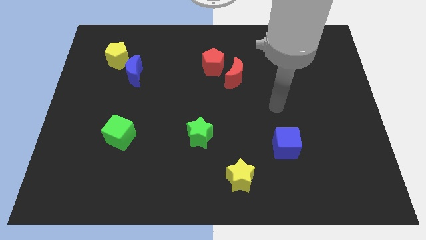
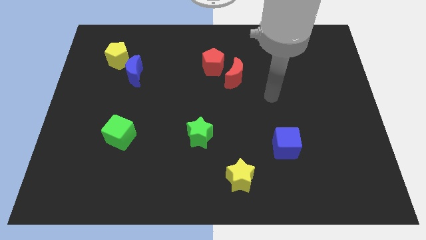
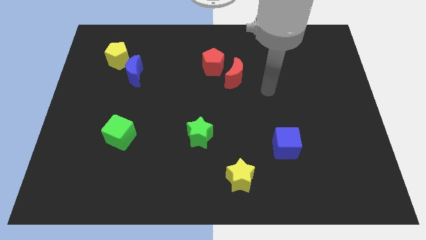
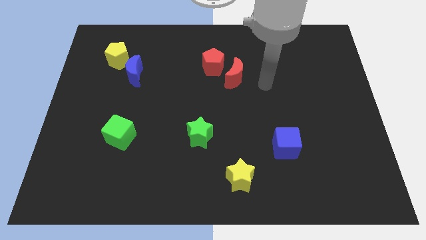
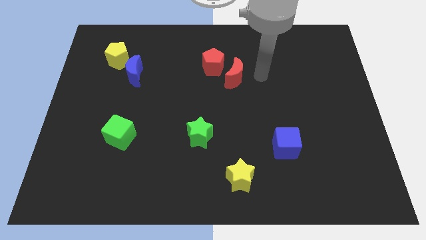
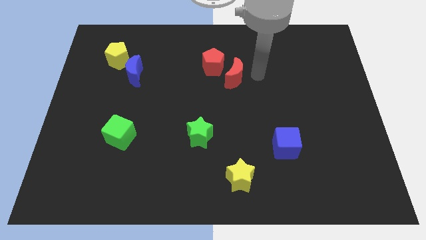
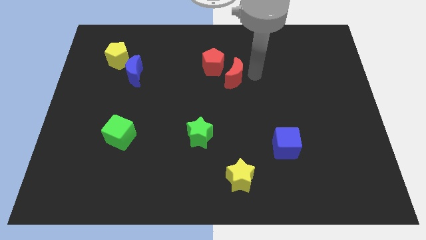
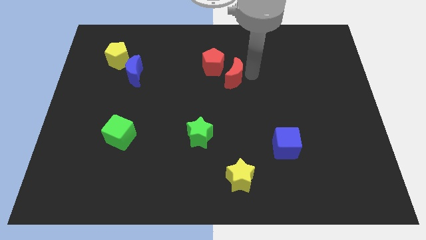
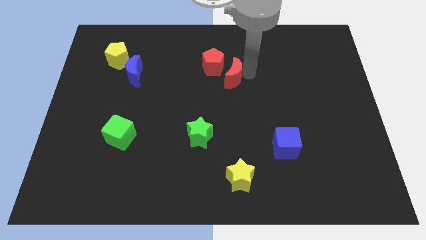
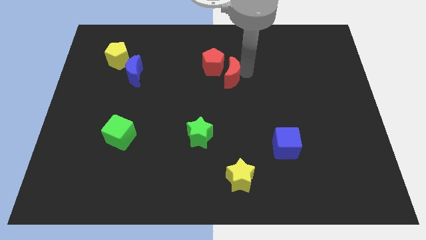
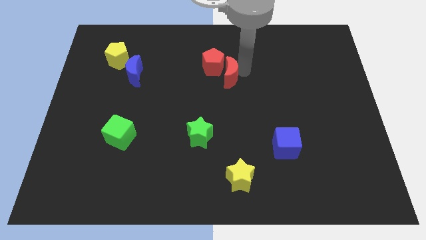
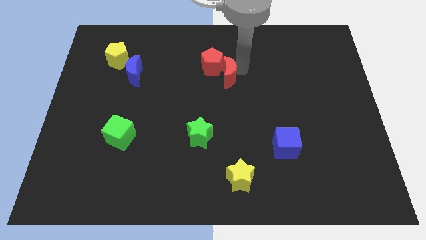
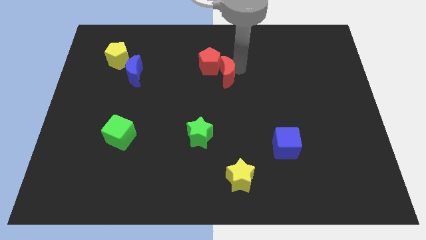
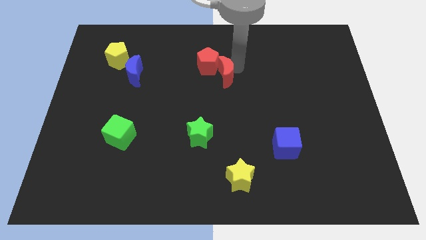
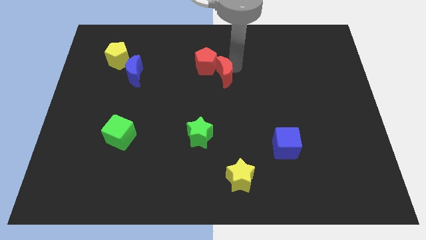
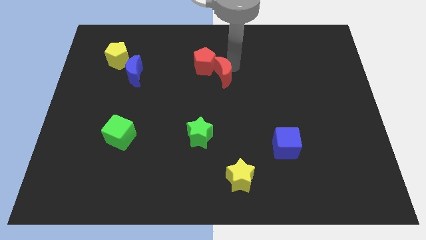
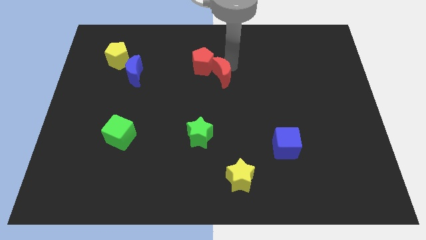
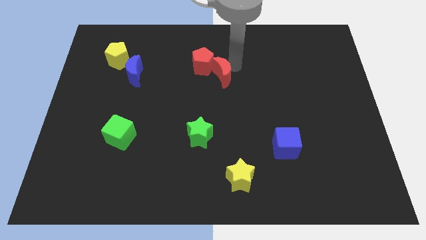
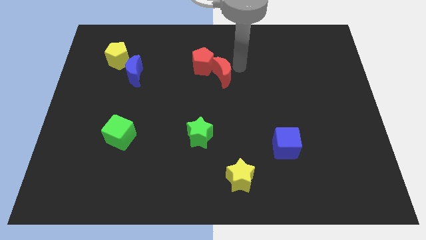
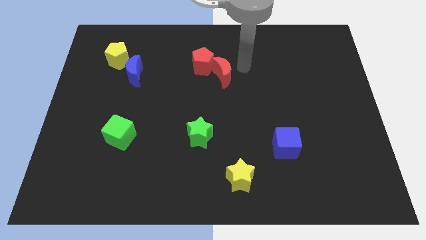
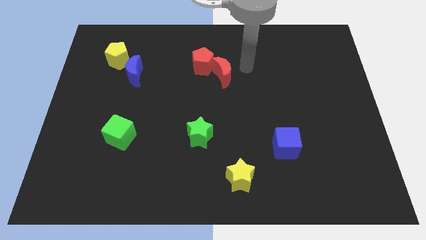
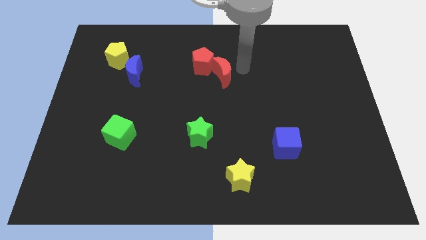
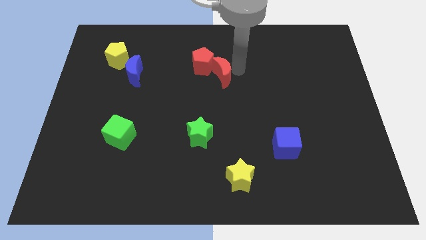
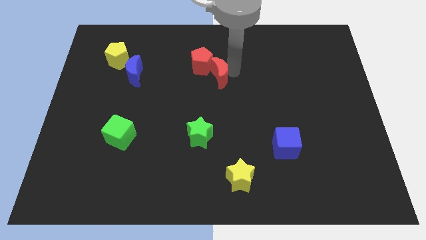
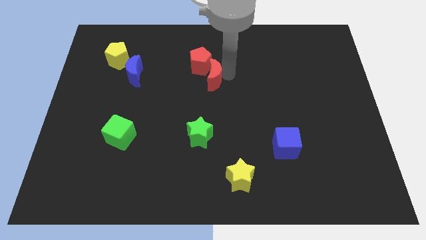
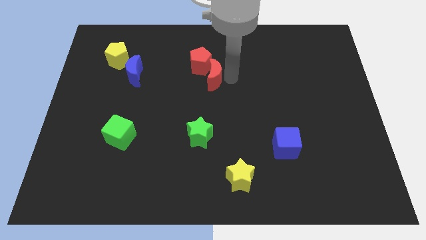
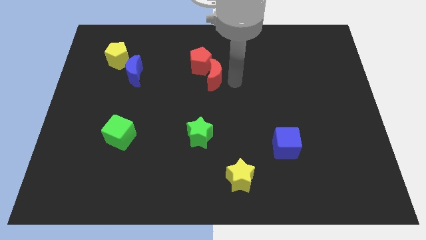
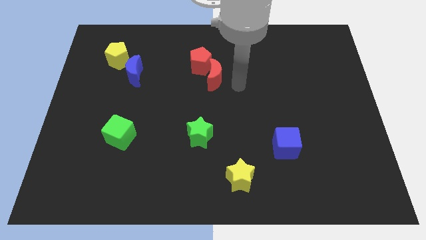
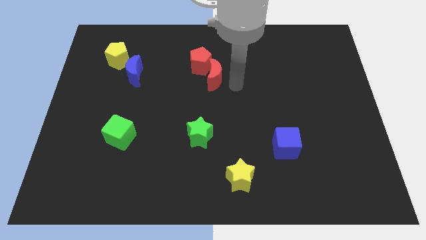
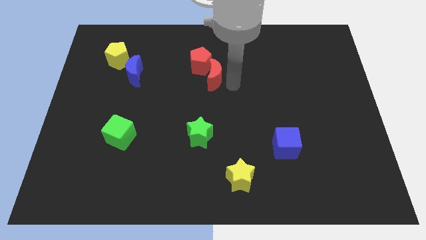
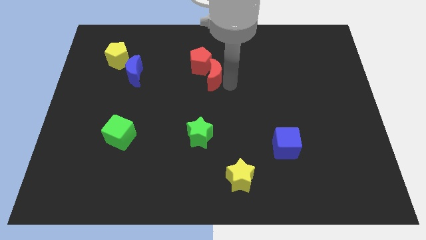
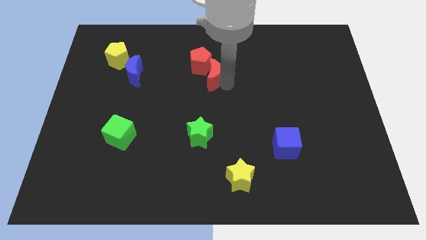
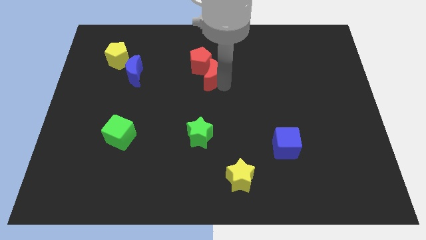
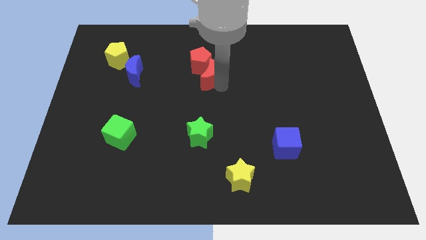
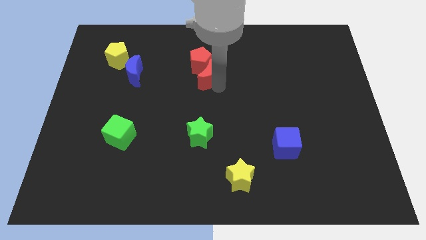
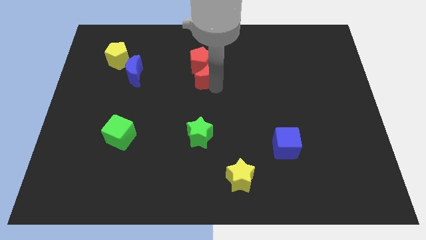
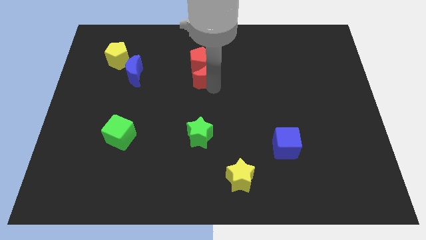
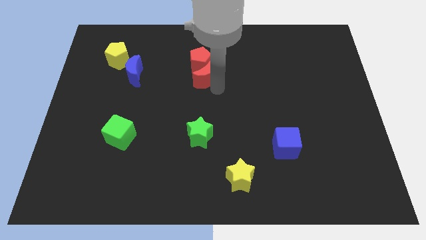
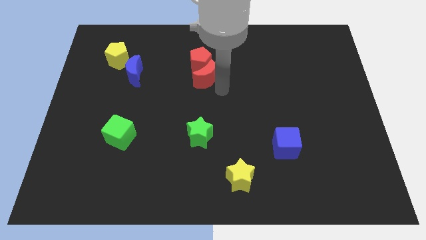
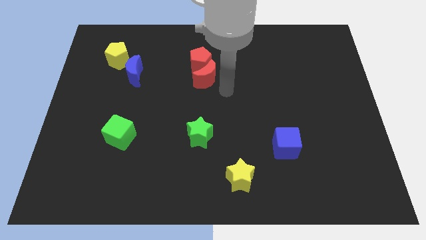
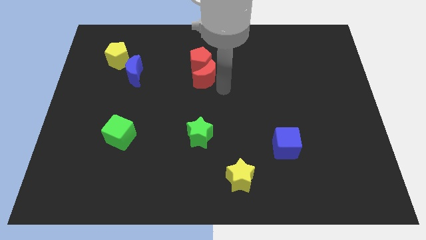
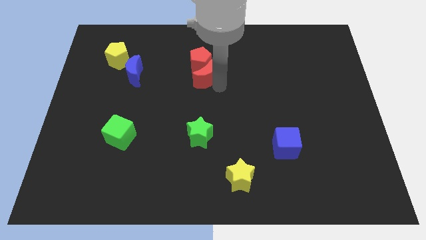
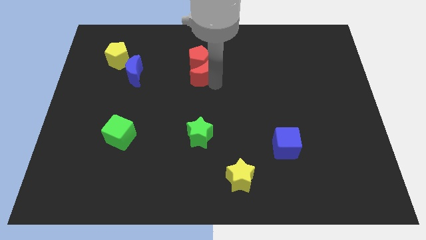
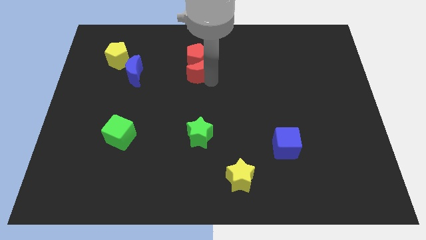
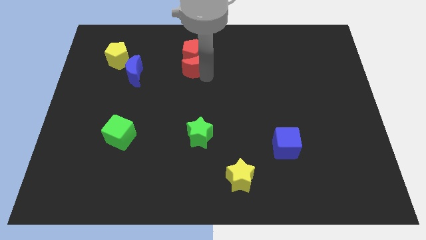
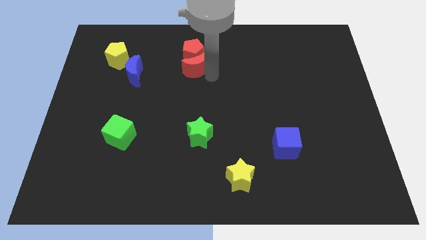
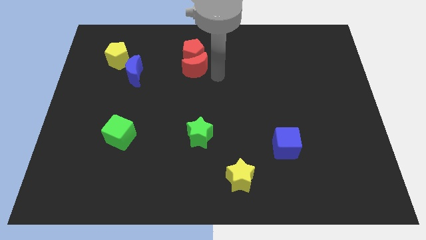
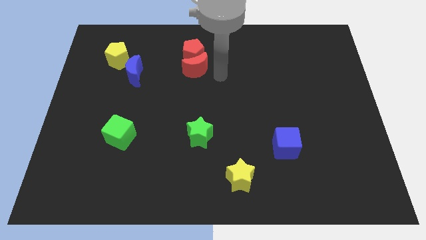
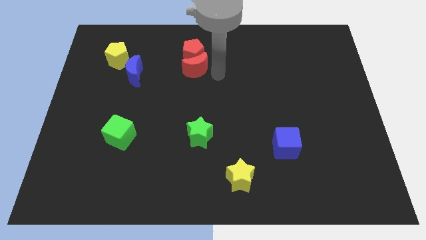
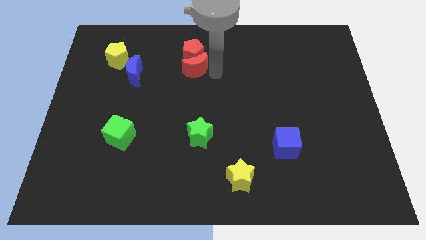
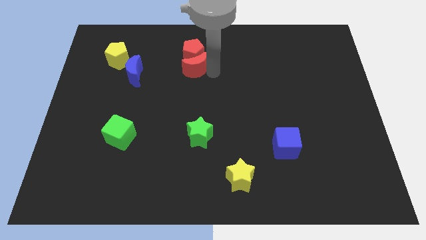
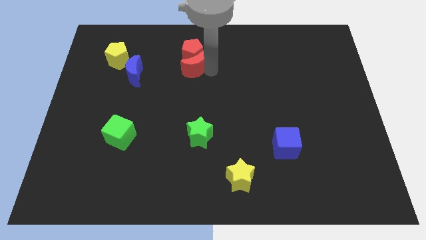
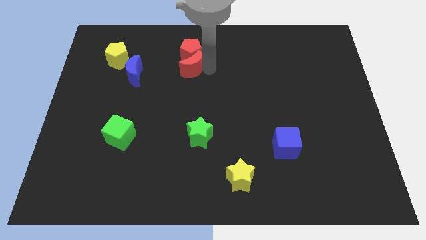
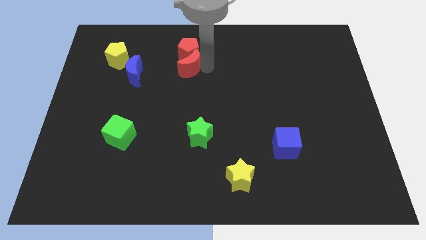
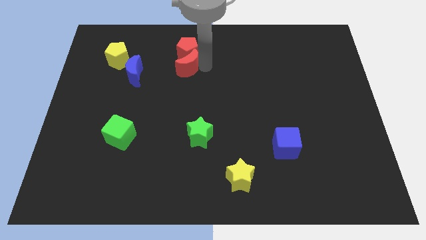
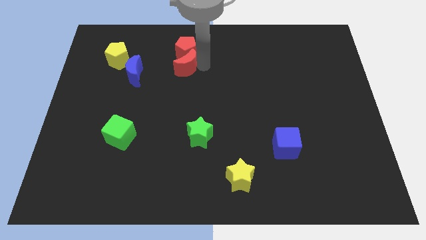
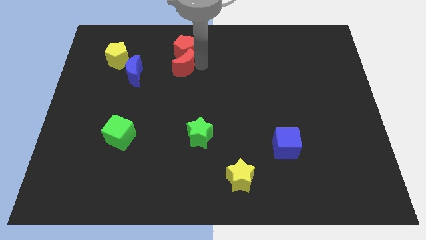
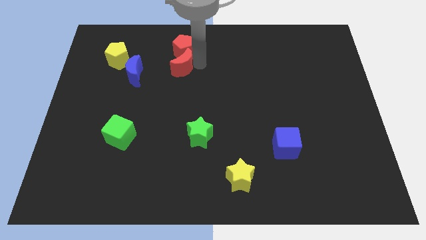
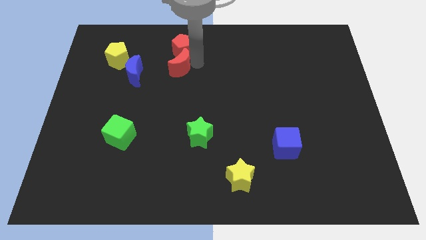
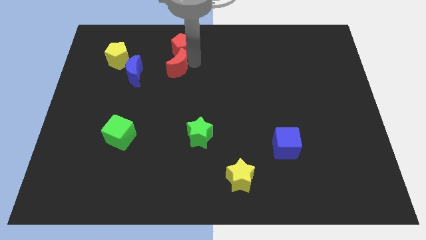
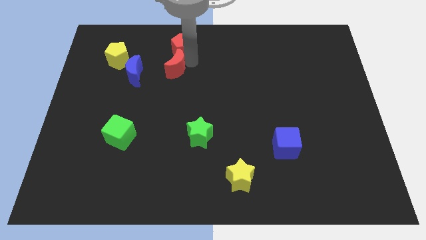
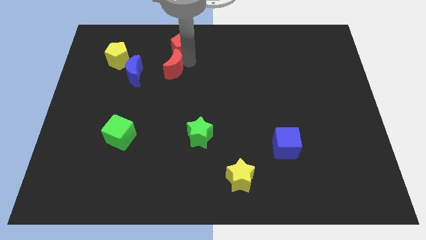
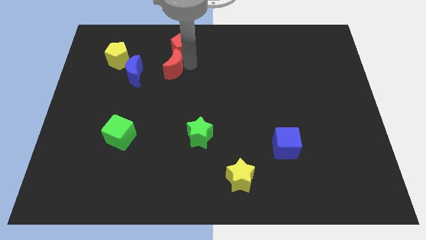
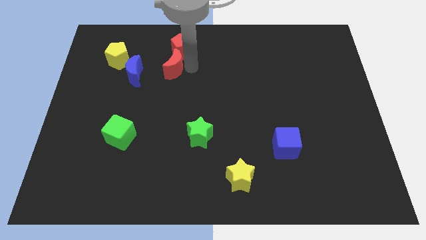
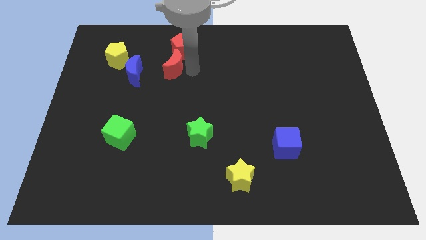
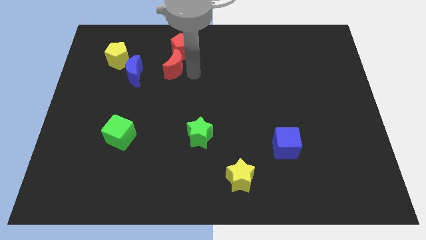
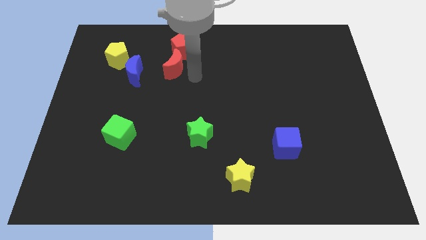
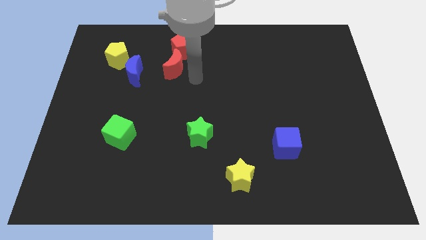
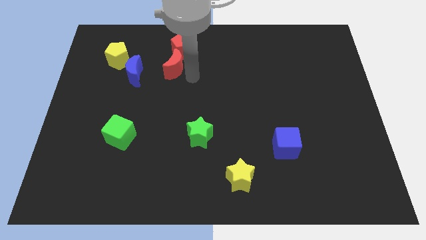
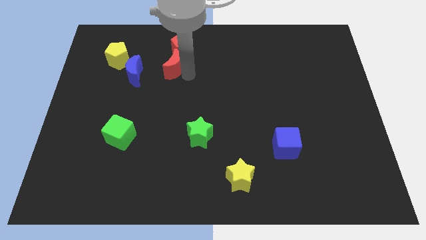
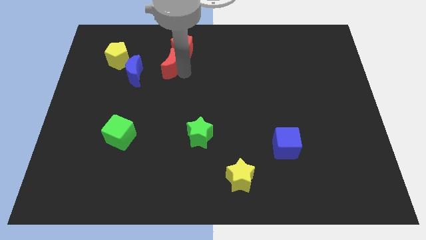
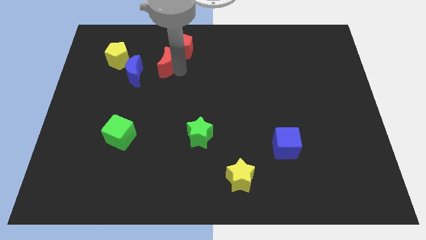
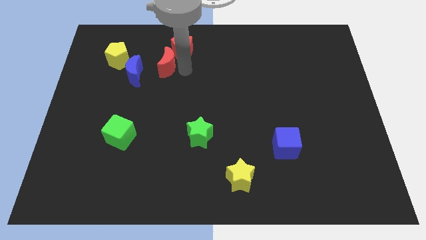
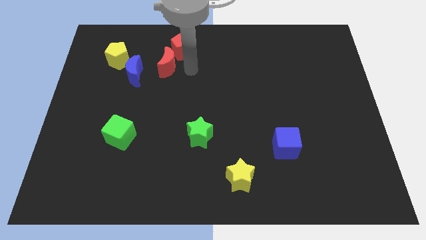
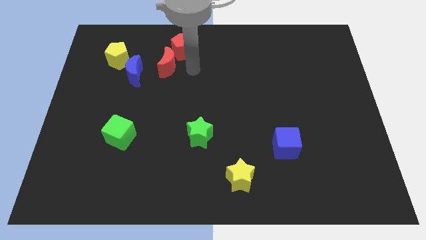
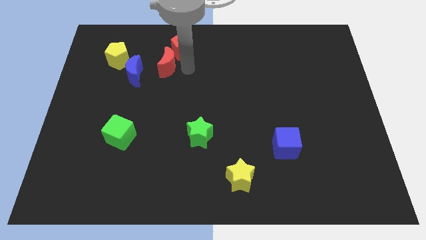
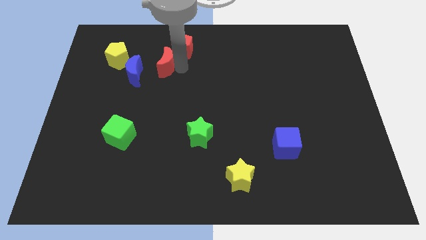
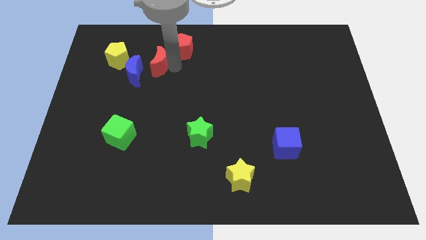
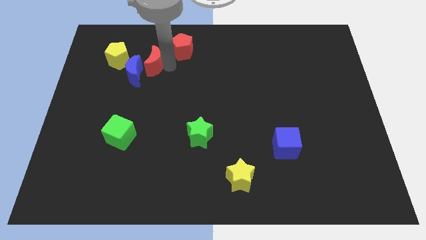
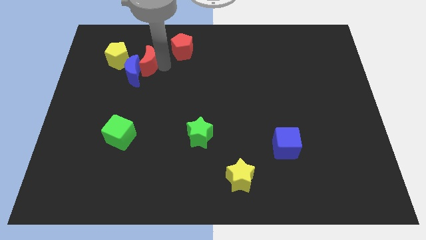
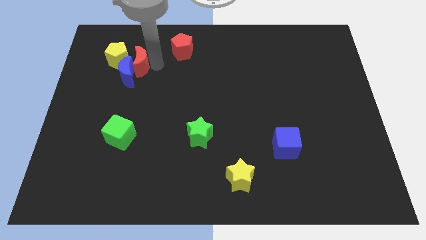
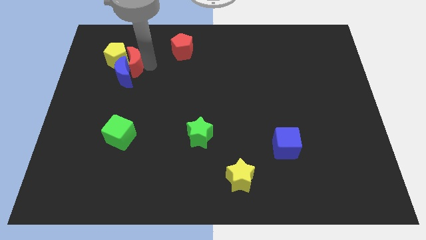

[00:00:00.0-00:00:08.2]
slide the red moon towards the yellow pentagon
